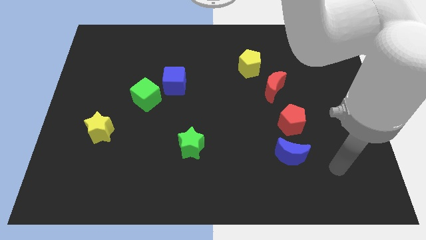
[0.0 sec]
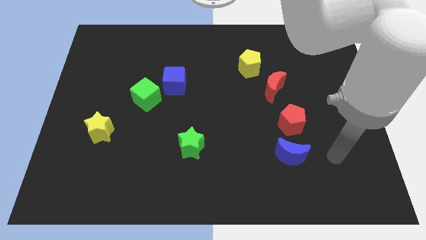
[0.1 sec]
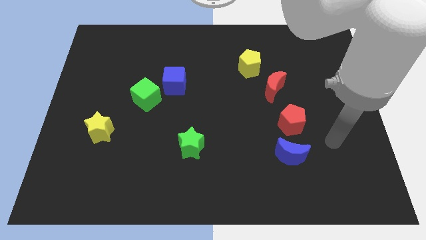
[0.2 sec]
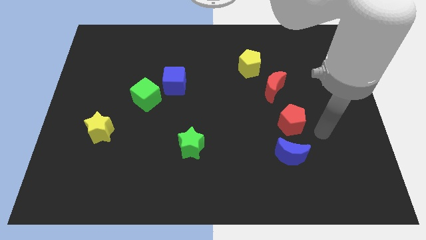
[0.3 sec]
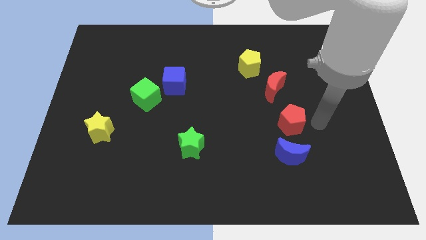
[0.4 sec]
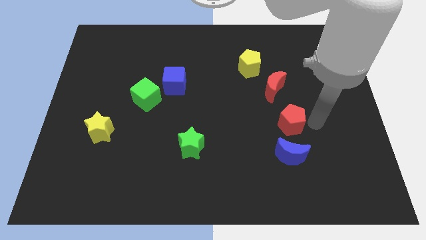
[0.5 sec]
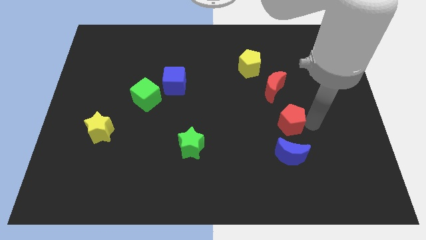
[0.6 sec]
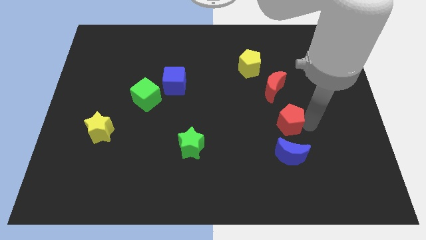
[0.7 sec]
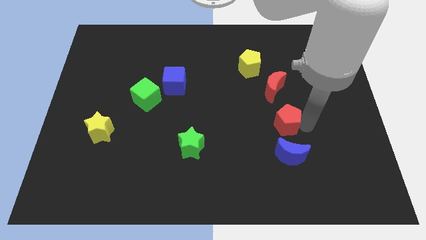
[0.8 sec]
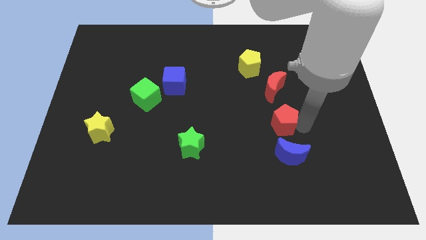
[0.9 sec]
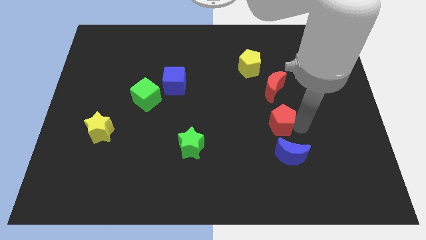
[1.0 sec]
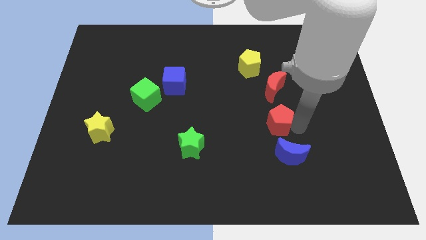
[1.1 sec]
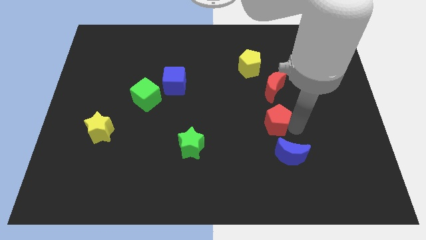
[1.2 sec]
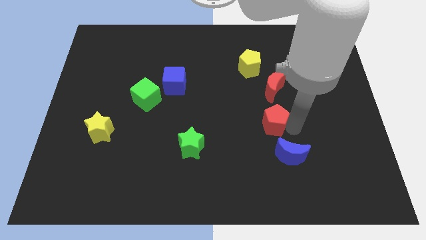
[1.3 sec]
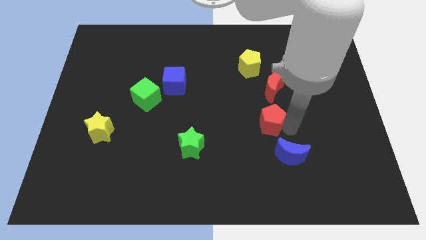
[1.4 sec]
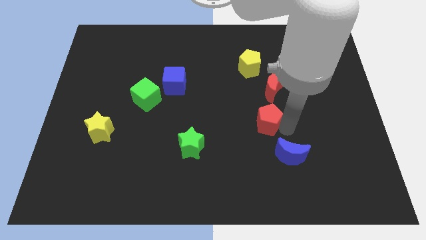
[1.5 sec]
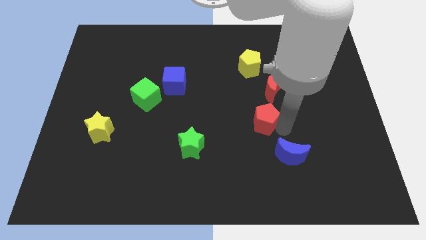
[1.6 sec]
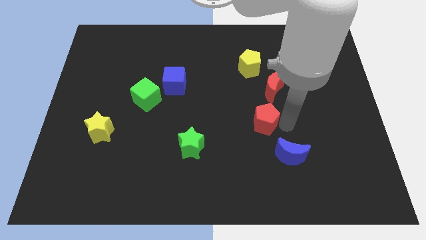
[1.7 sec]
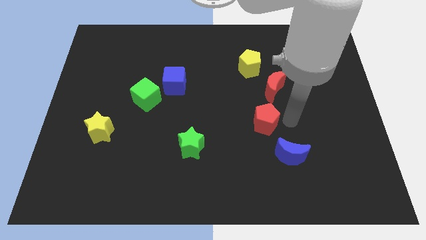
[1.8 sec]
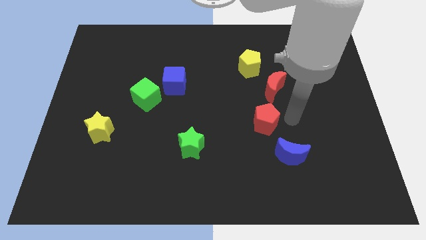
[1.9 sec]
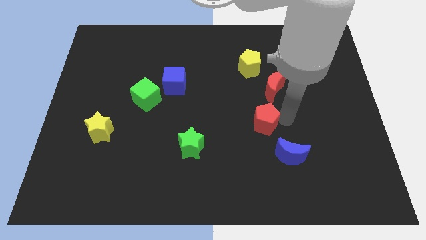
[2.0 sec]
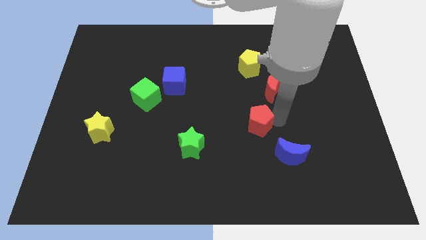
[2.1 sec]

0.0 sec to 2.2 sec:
move the red pentagon left slightly

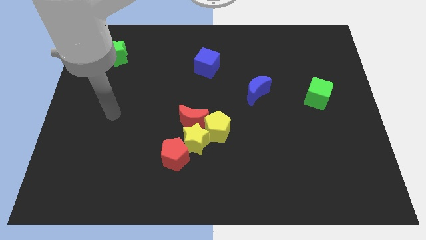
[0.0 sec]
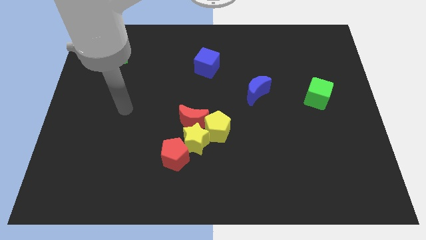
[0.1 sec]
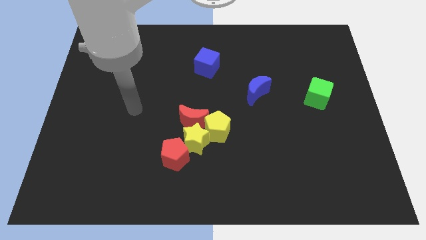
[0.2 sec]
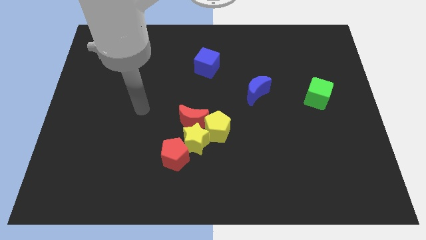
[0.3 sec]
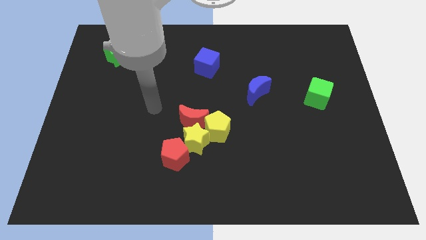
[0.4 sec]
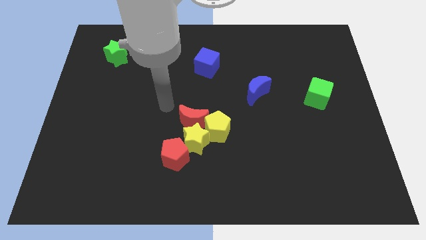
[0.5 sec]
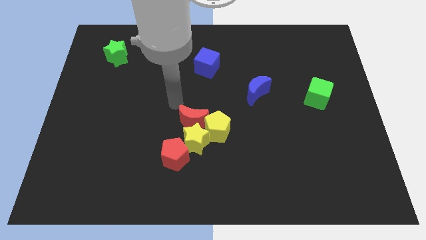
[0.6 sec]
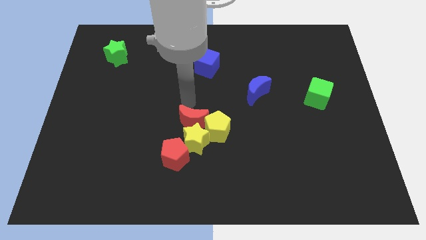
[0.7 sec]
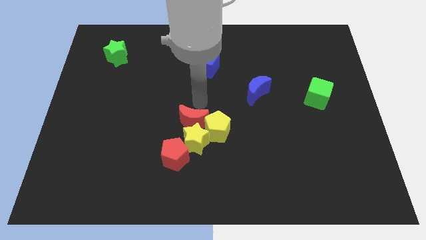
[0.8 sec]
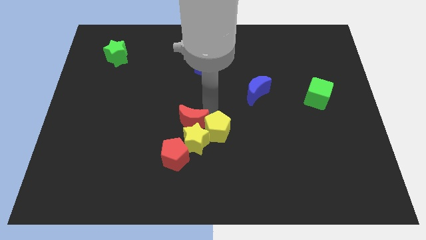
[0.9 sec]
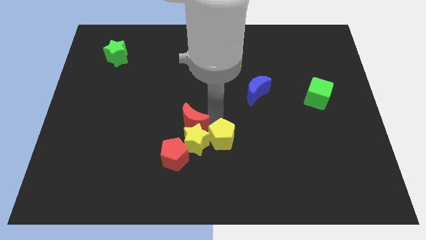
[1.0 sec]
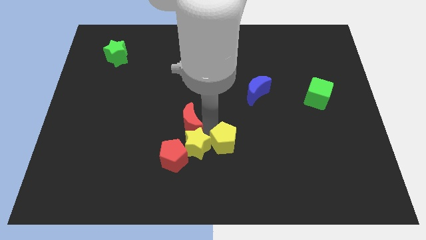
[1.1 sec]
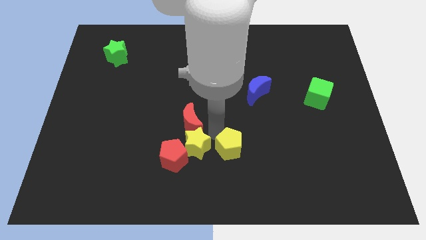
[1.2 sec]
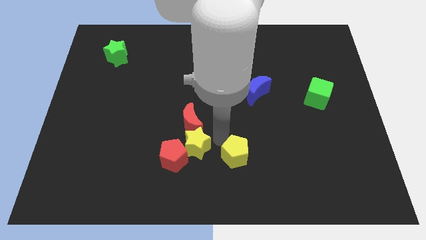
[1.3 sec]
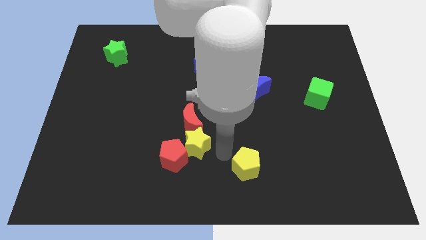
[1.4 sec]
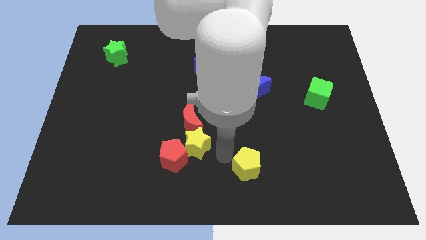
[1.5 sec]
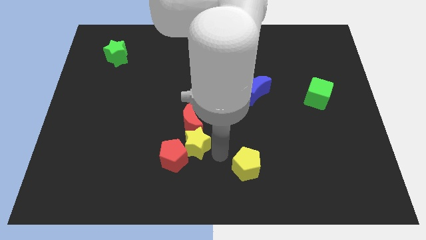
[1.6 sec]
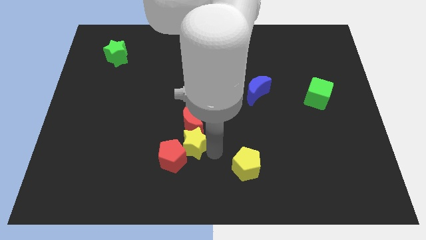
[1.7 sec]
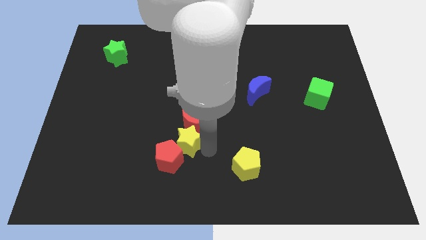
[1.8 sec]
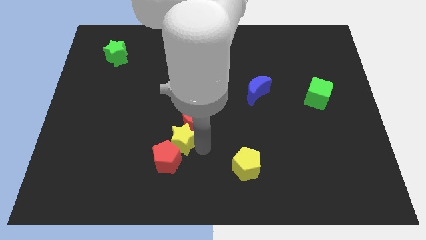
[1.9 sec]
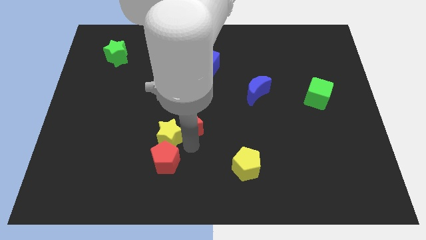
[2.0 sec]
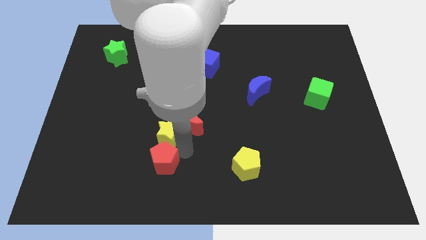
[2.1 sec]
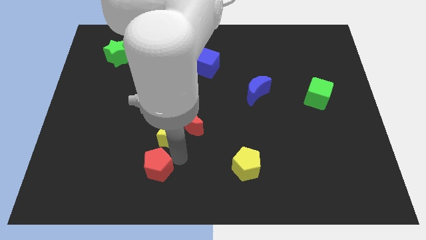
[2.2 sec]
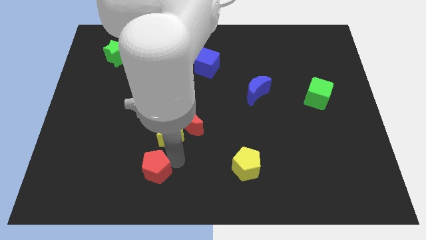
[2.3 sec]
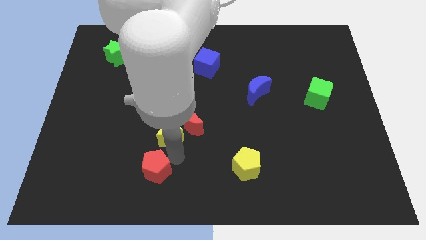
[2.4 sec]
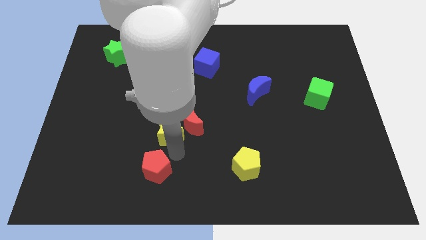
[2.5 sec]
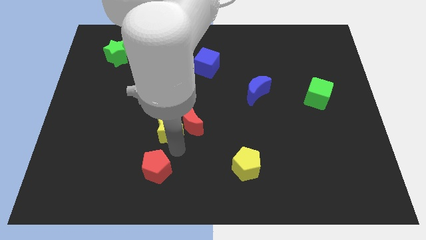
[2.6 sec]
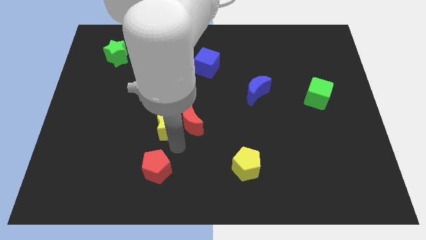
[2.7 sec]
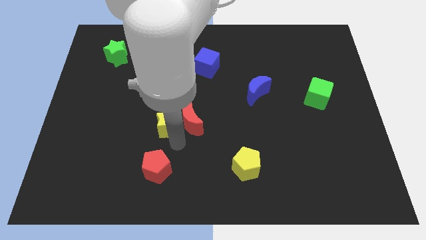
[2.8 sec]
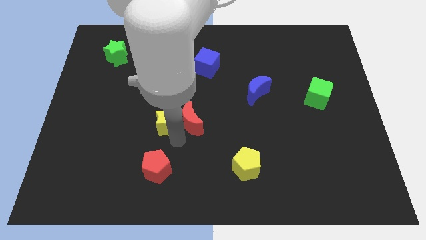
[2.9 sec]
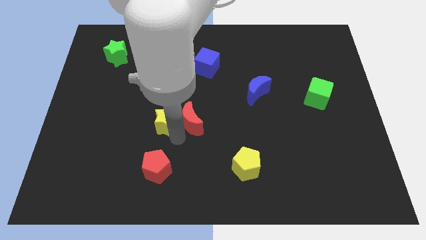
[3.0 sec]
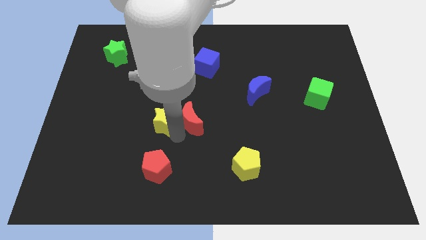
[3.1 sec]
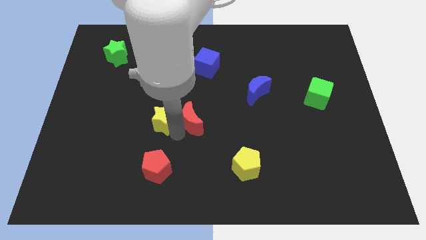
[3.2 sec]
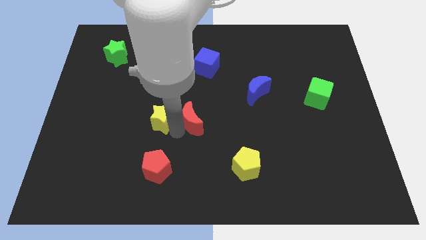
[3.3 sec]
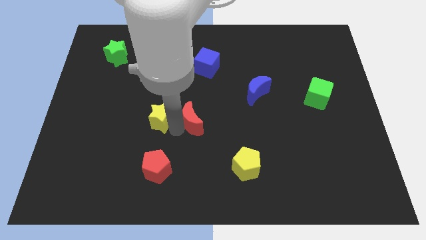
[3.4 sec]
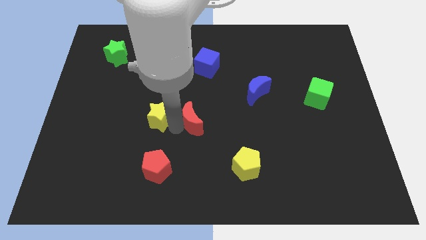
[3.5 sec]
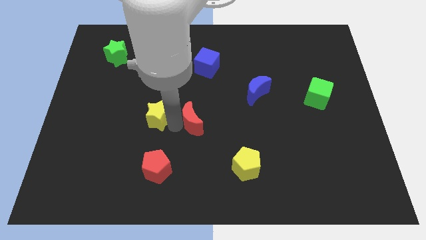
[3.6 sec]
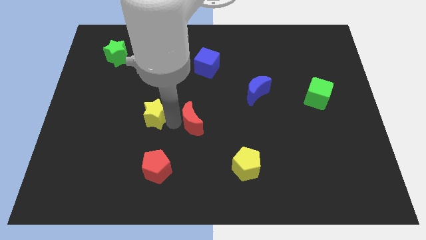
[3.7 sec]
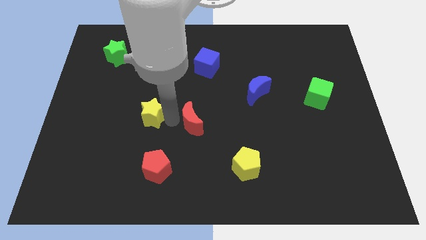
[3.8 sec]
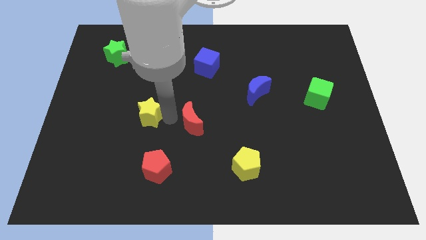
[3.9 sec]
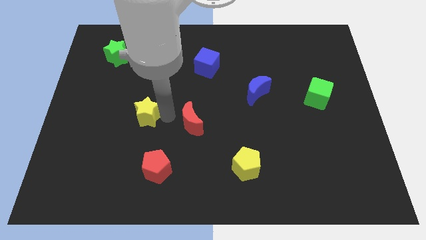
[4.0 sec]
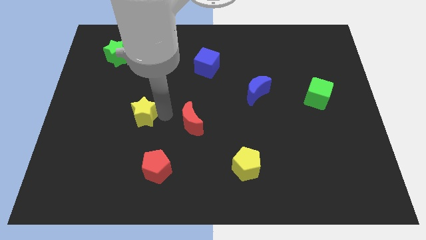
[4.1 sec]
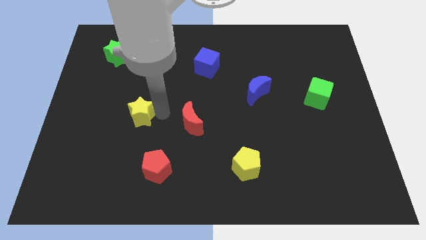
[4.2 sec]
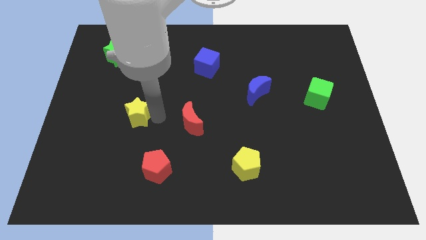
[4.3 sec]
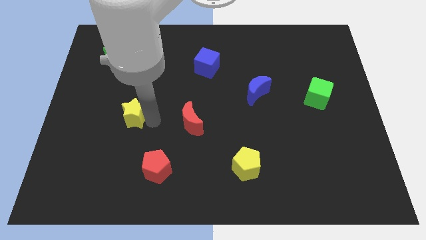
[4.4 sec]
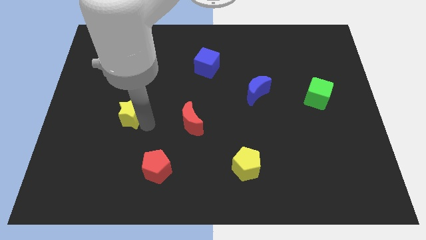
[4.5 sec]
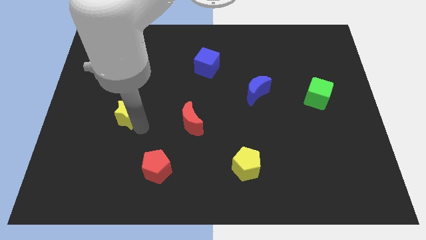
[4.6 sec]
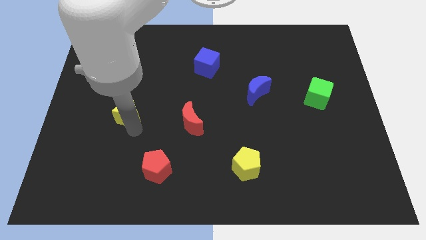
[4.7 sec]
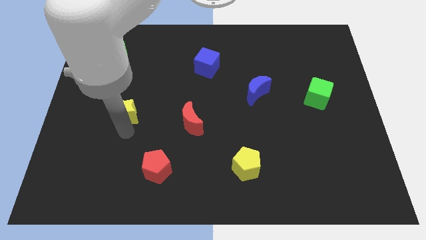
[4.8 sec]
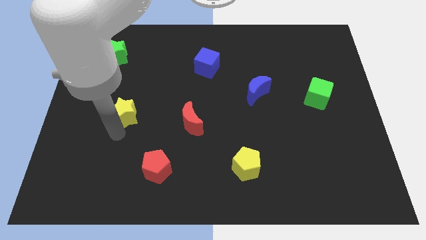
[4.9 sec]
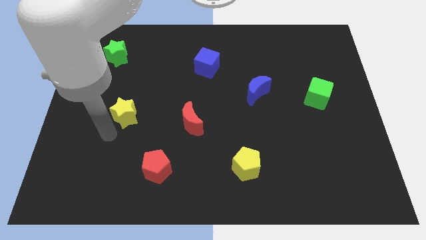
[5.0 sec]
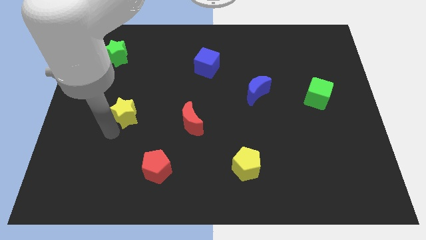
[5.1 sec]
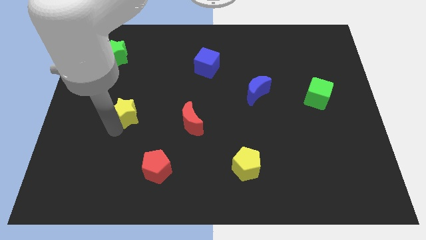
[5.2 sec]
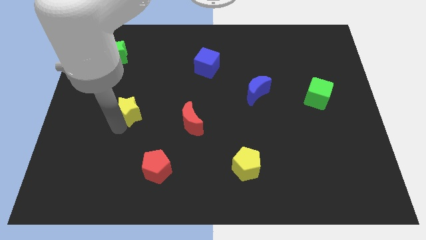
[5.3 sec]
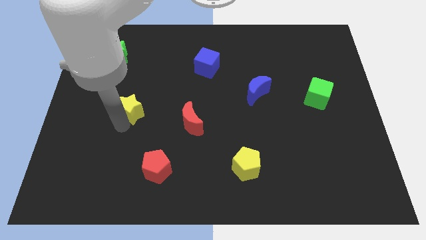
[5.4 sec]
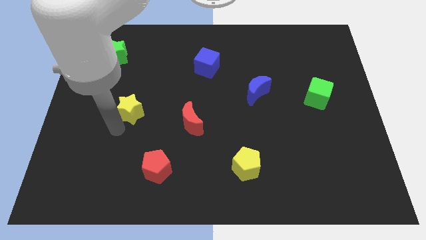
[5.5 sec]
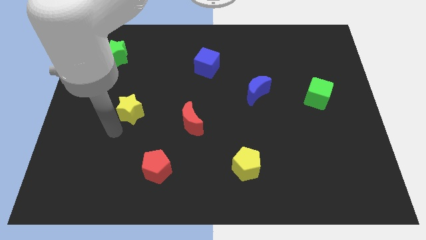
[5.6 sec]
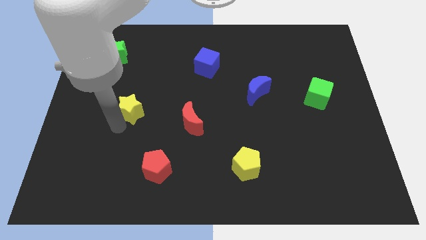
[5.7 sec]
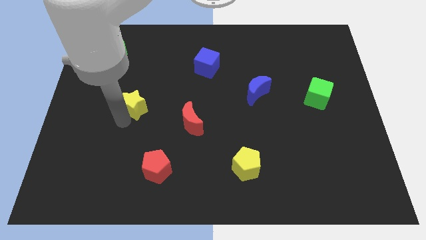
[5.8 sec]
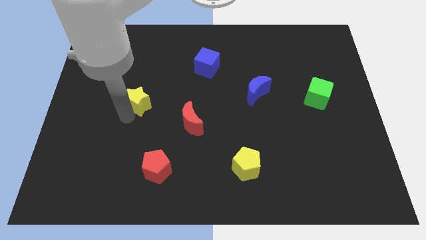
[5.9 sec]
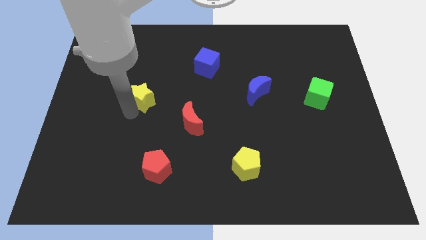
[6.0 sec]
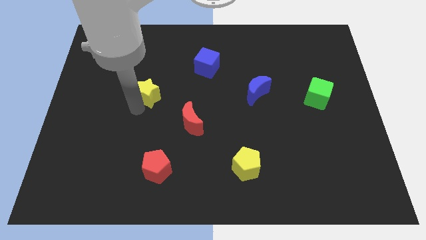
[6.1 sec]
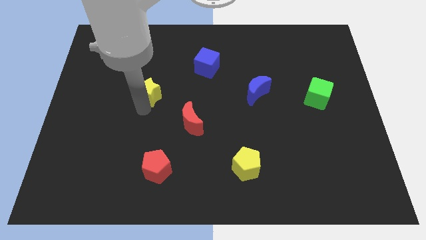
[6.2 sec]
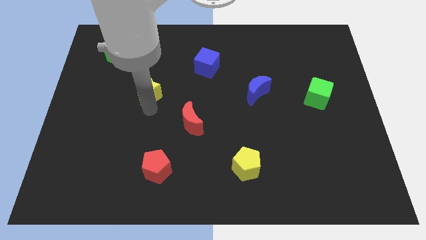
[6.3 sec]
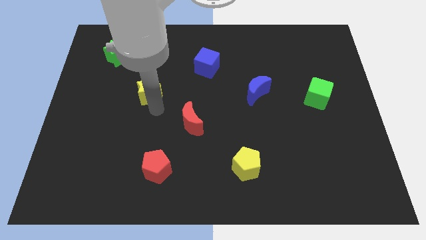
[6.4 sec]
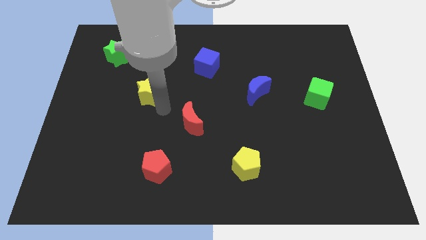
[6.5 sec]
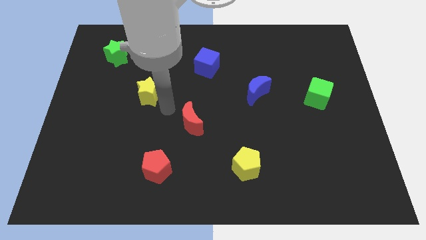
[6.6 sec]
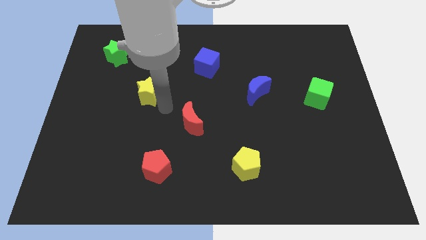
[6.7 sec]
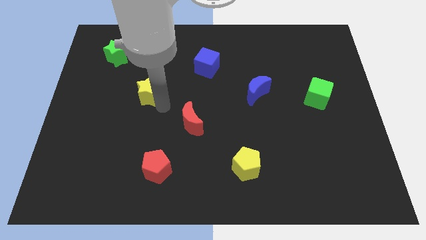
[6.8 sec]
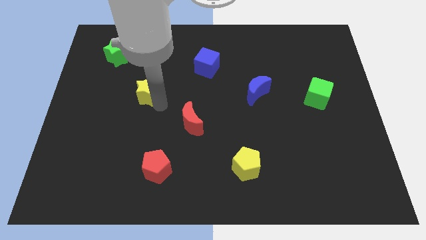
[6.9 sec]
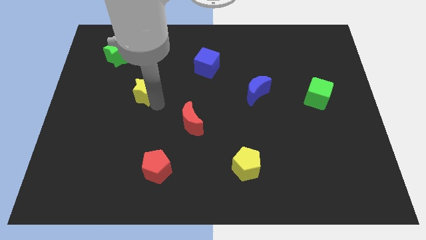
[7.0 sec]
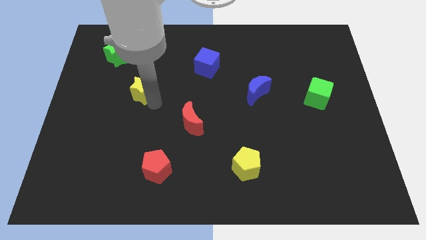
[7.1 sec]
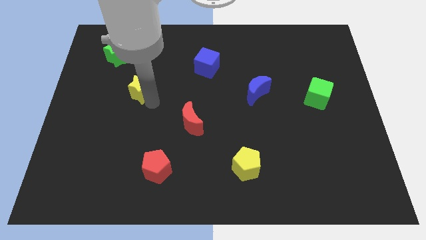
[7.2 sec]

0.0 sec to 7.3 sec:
push the yellow star up and then to the left
